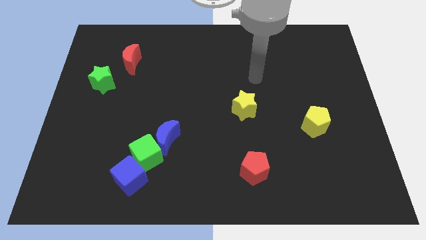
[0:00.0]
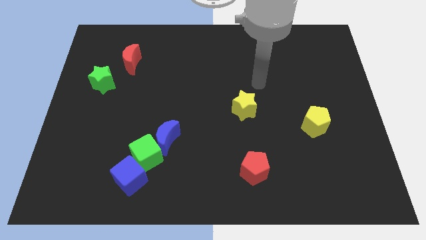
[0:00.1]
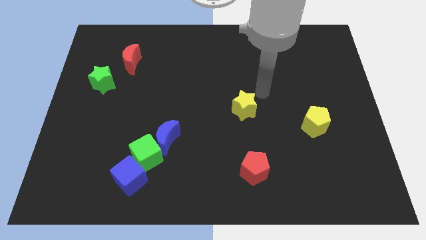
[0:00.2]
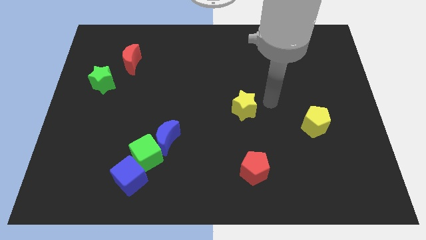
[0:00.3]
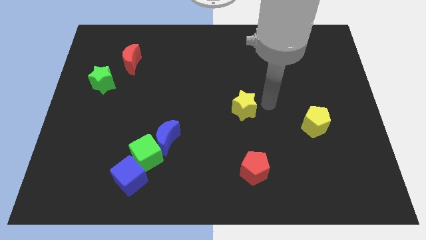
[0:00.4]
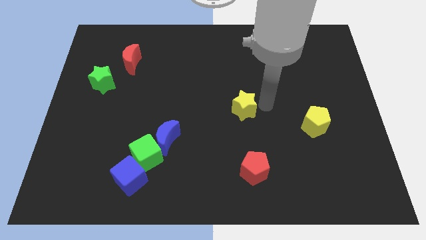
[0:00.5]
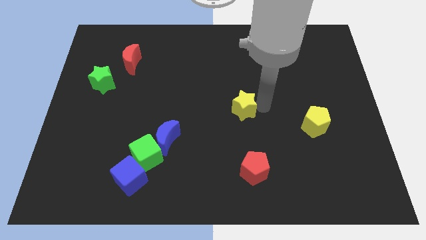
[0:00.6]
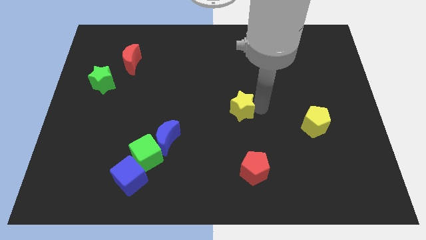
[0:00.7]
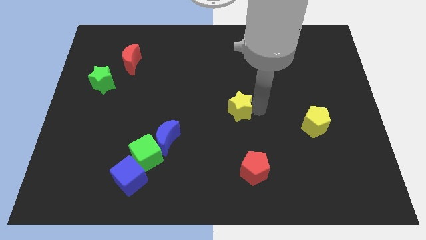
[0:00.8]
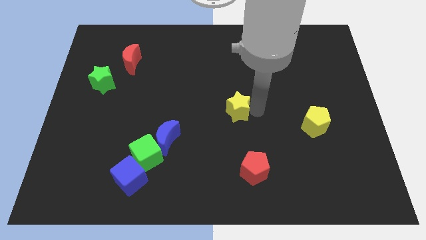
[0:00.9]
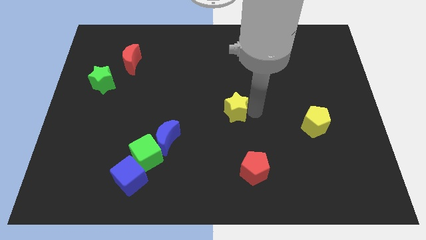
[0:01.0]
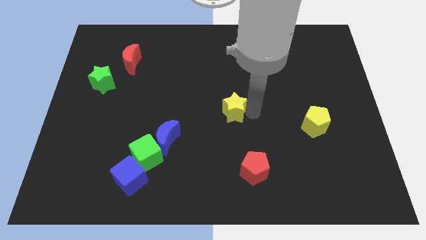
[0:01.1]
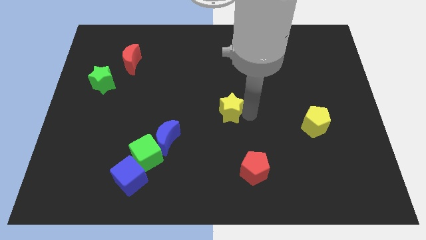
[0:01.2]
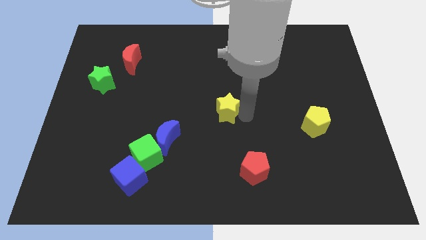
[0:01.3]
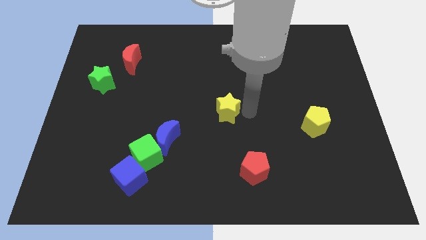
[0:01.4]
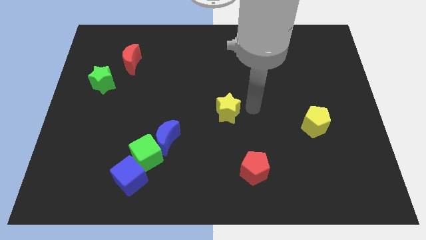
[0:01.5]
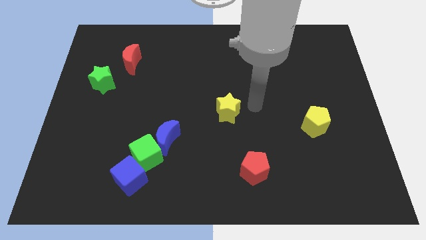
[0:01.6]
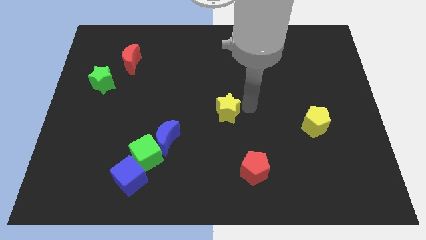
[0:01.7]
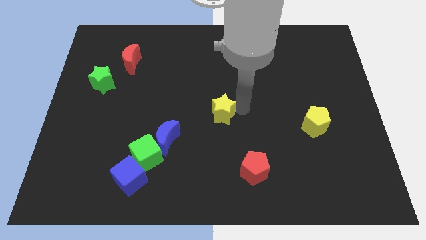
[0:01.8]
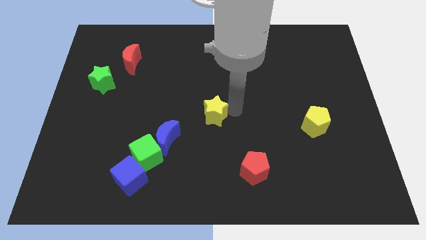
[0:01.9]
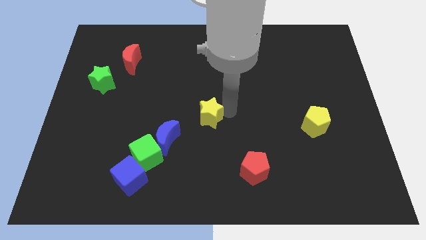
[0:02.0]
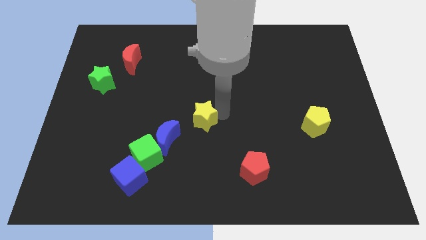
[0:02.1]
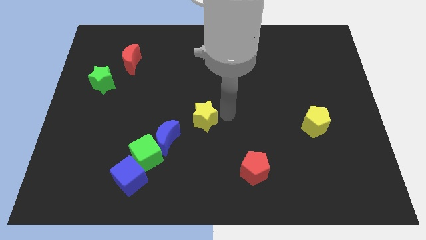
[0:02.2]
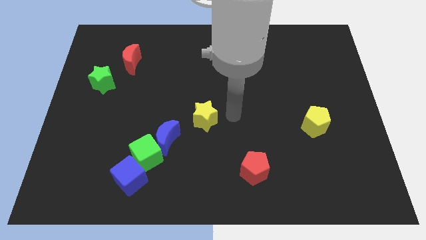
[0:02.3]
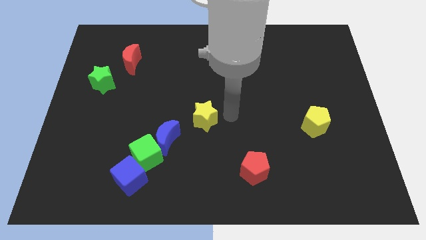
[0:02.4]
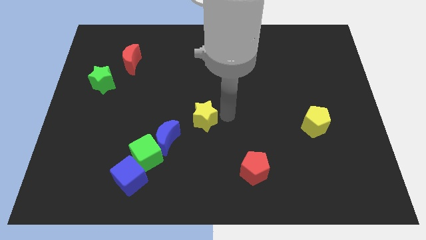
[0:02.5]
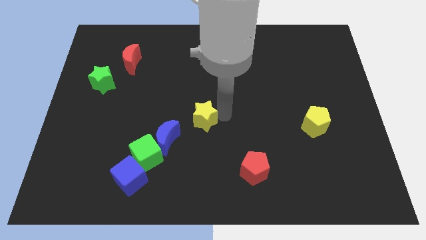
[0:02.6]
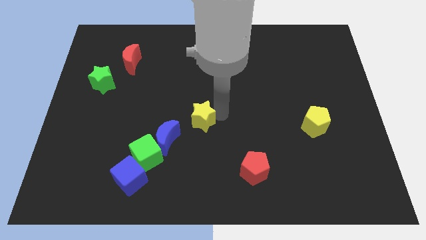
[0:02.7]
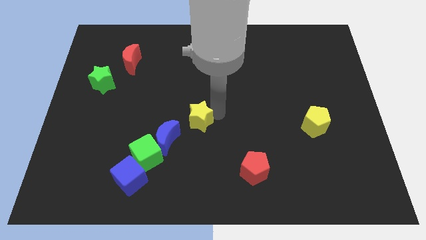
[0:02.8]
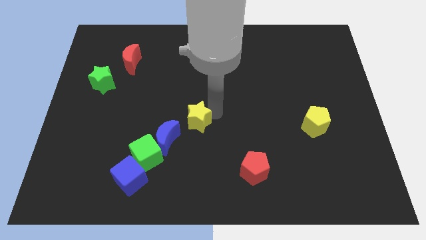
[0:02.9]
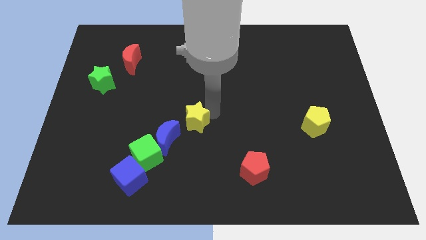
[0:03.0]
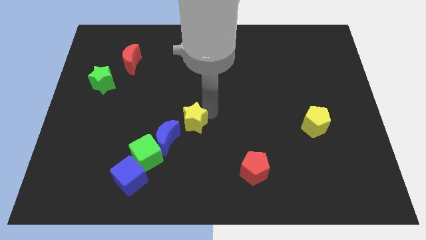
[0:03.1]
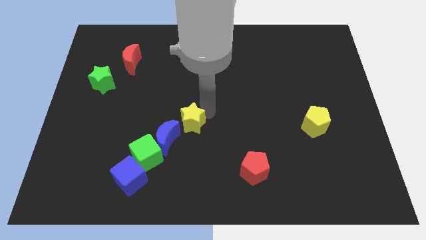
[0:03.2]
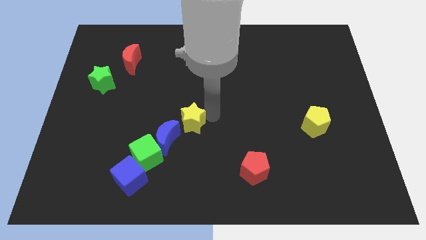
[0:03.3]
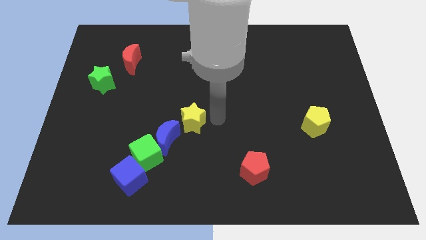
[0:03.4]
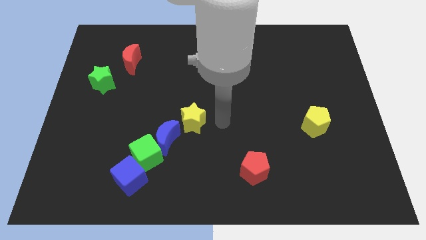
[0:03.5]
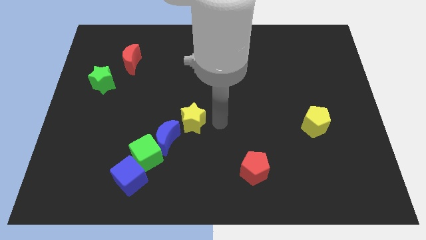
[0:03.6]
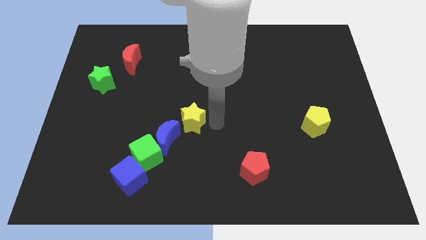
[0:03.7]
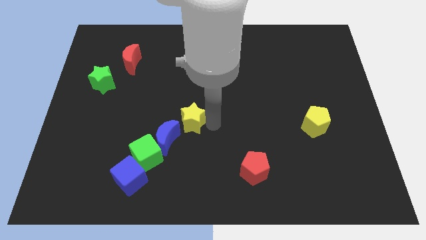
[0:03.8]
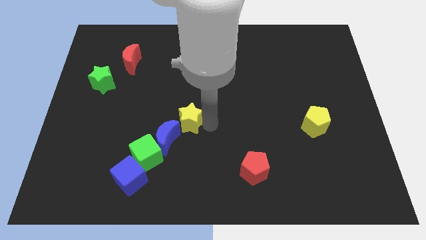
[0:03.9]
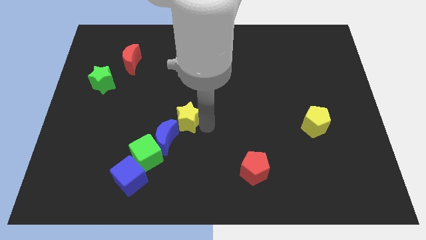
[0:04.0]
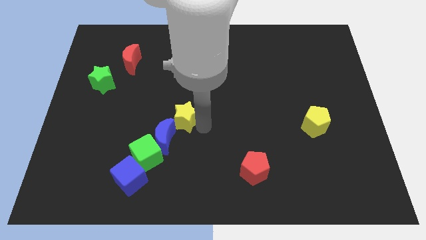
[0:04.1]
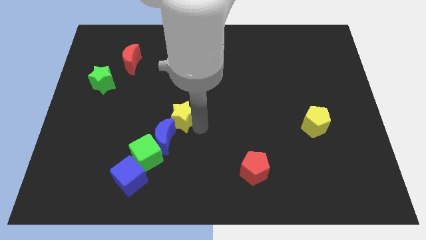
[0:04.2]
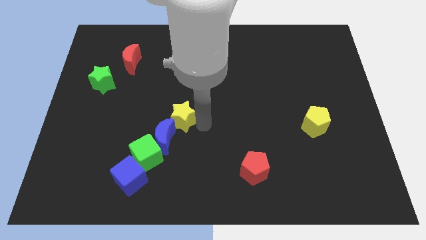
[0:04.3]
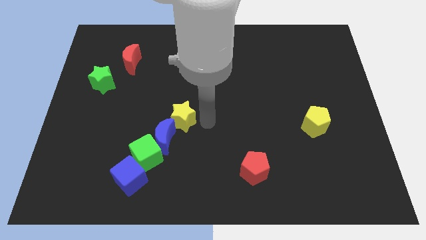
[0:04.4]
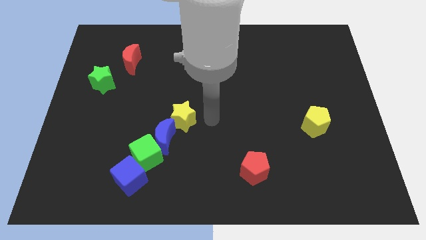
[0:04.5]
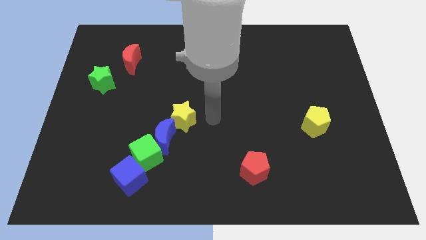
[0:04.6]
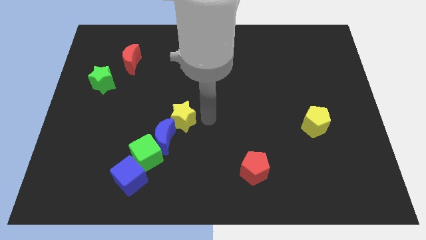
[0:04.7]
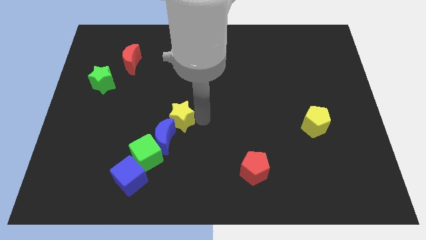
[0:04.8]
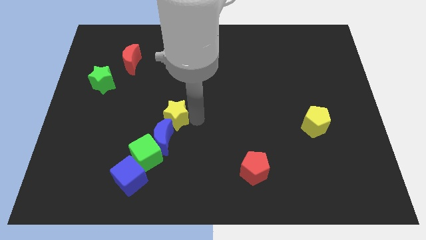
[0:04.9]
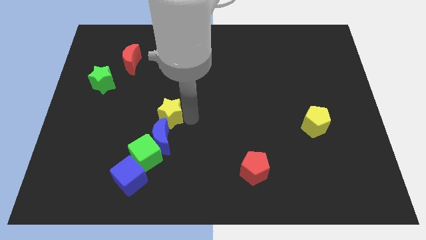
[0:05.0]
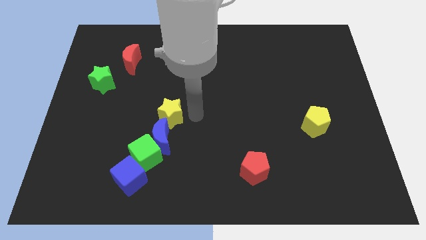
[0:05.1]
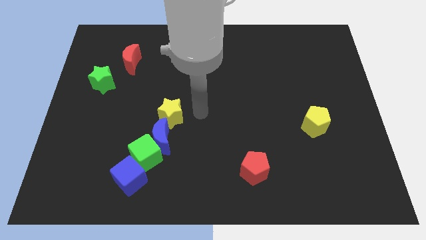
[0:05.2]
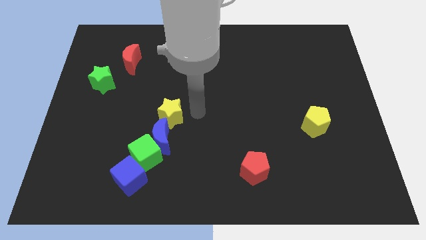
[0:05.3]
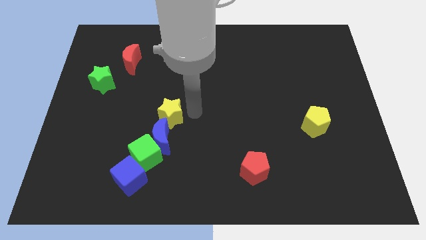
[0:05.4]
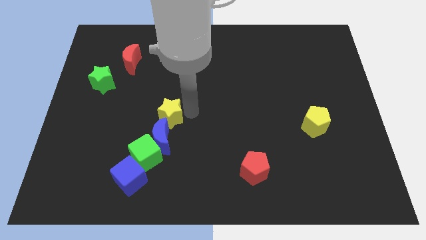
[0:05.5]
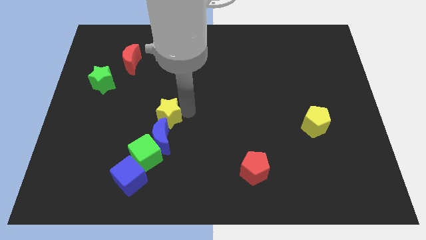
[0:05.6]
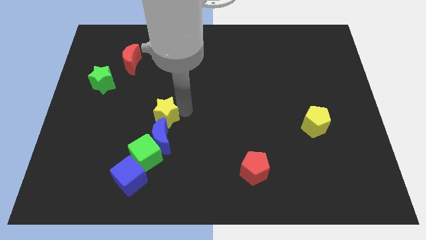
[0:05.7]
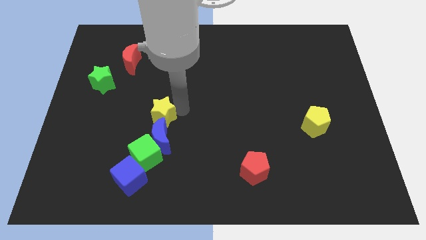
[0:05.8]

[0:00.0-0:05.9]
push the yellow star to the top left of the blue moon

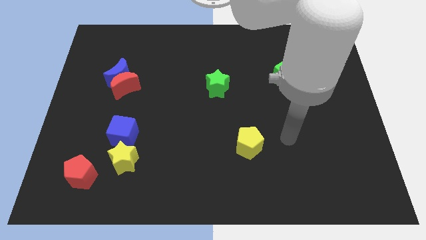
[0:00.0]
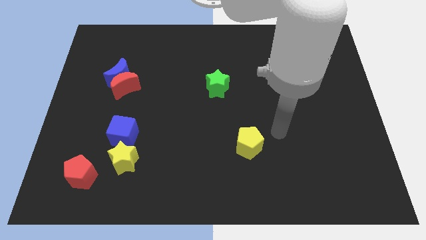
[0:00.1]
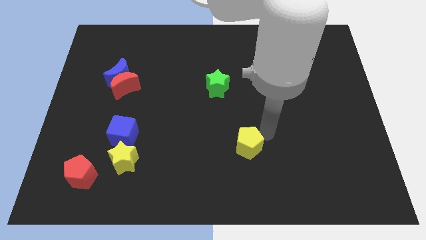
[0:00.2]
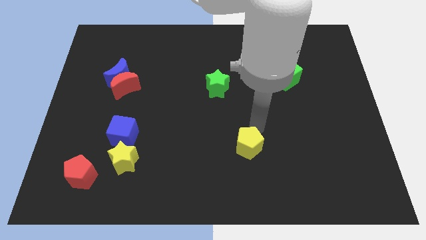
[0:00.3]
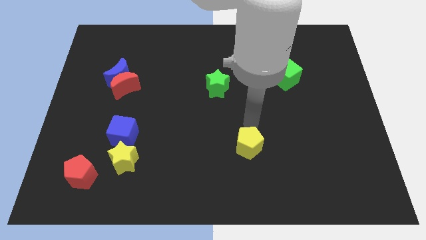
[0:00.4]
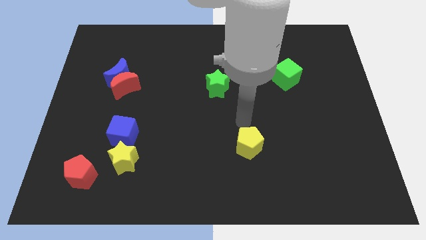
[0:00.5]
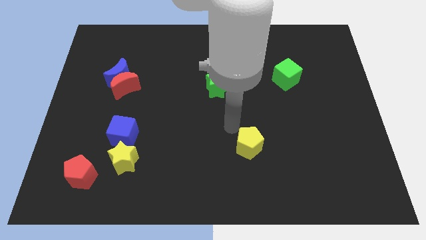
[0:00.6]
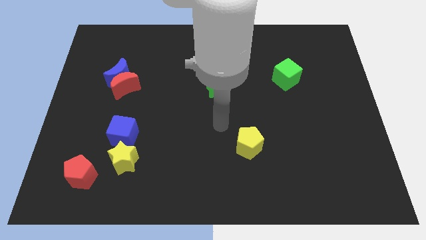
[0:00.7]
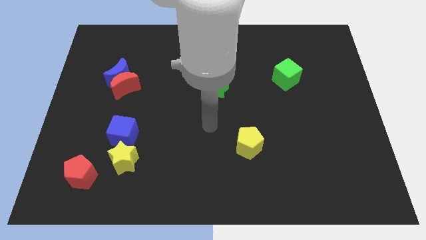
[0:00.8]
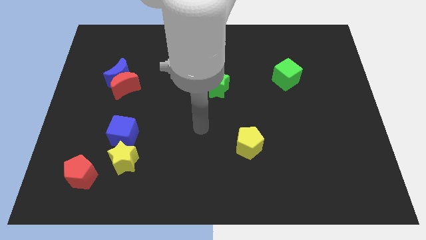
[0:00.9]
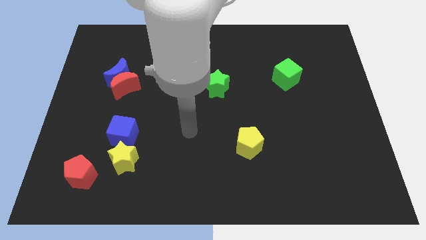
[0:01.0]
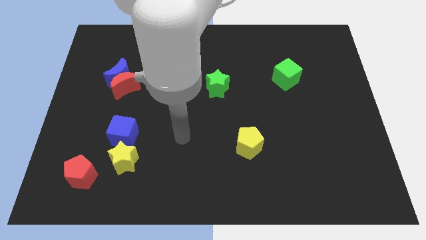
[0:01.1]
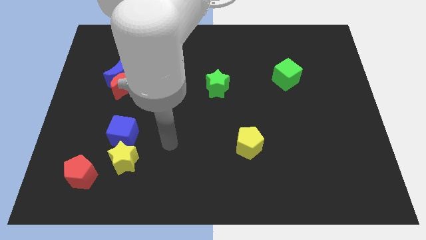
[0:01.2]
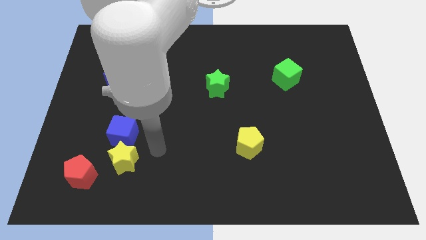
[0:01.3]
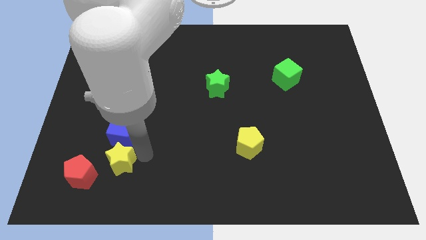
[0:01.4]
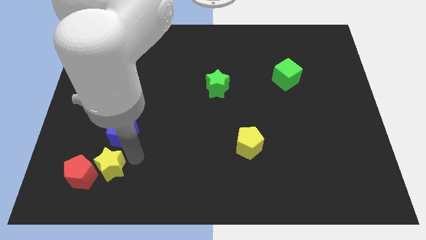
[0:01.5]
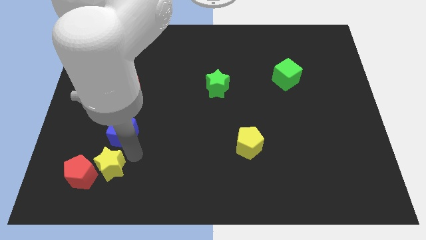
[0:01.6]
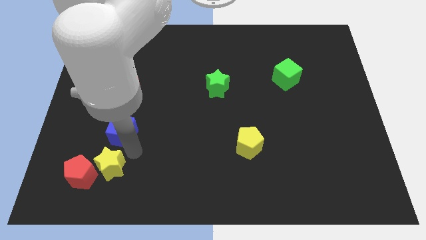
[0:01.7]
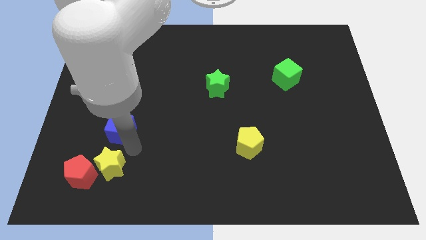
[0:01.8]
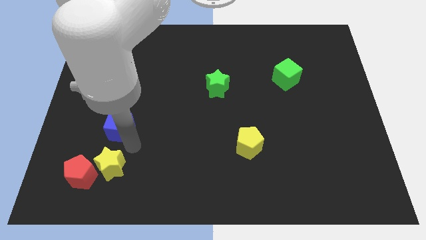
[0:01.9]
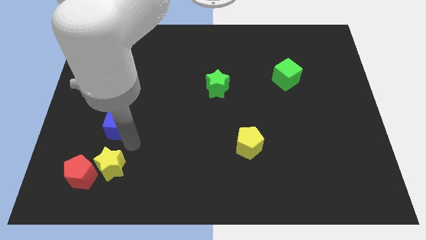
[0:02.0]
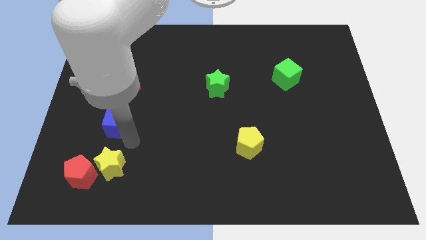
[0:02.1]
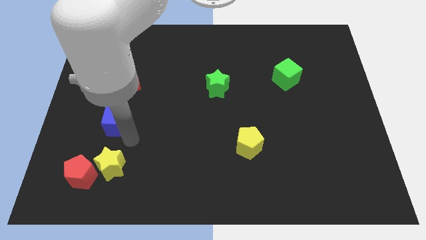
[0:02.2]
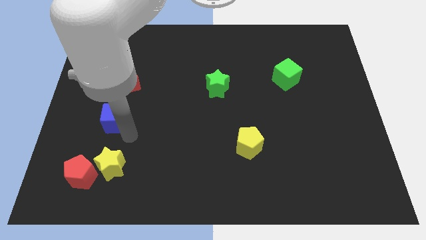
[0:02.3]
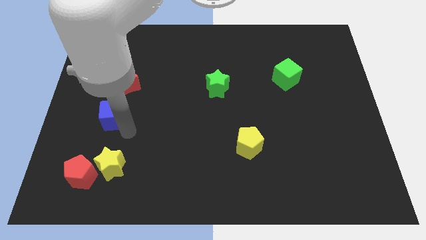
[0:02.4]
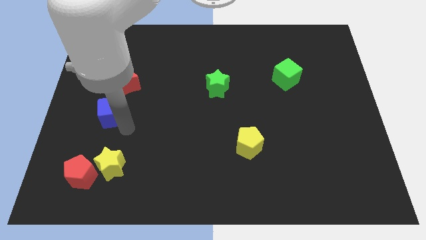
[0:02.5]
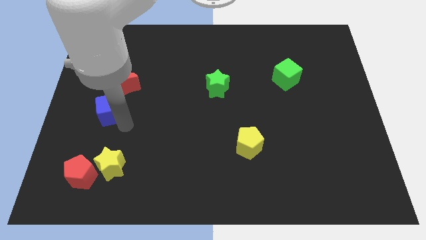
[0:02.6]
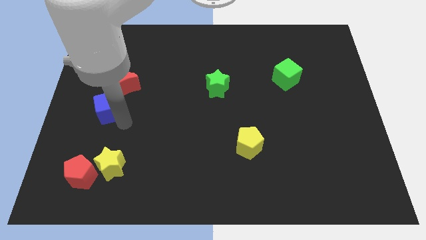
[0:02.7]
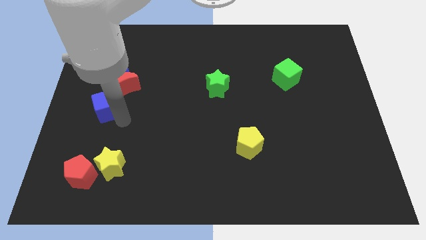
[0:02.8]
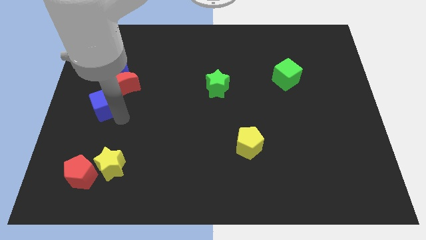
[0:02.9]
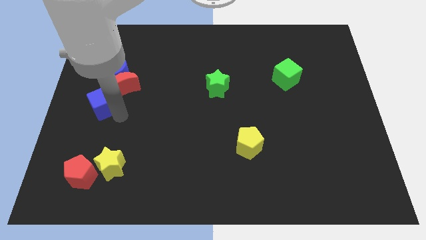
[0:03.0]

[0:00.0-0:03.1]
slide the blue cube to the bottom left of the blue moon
